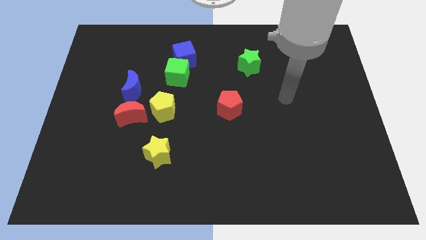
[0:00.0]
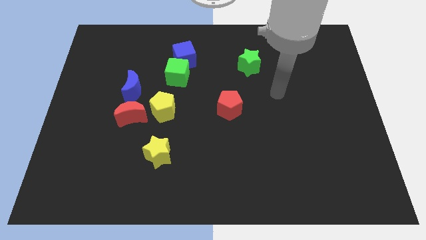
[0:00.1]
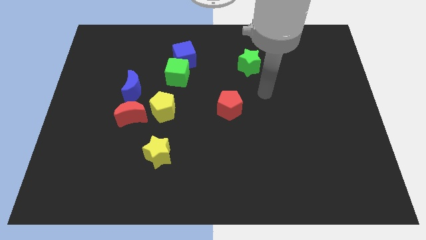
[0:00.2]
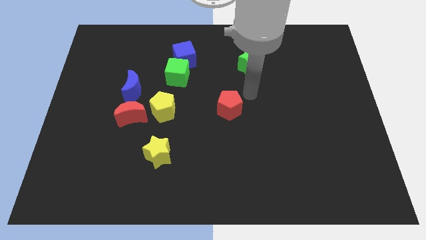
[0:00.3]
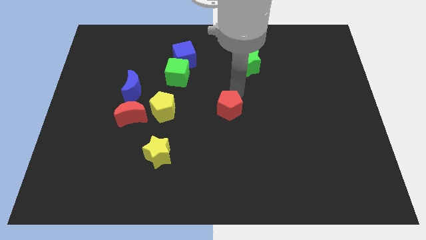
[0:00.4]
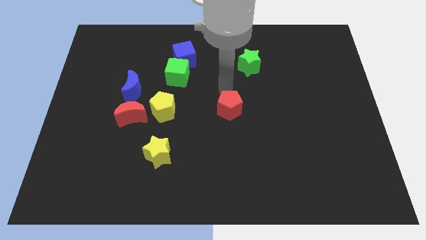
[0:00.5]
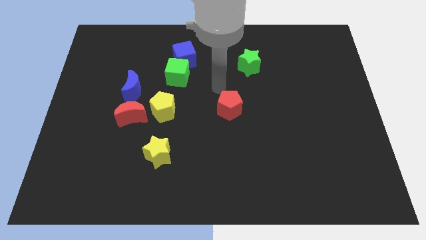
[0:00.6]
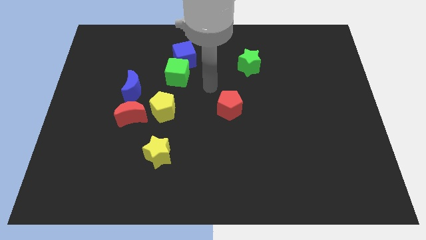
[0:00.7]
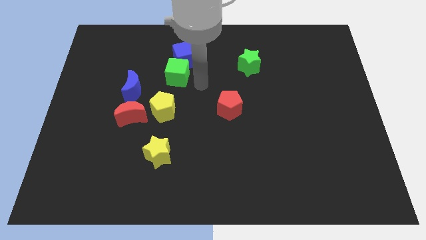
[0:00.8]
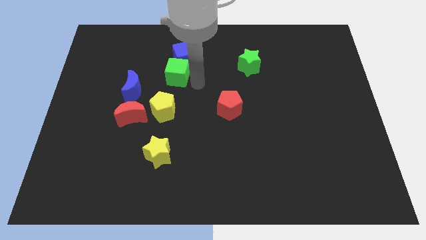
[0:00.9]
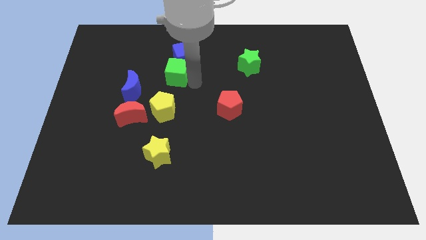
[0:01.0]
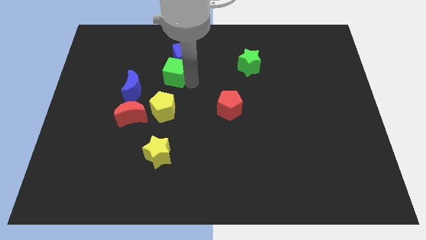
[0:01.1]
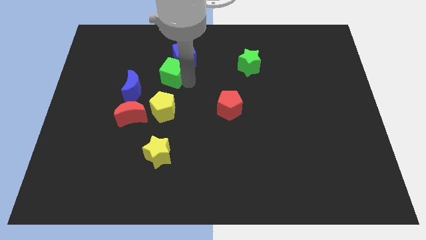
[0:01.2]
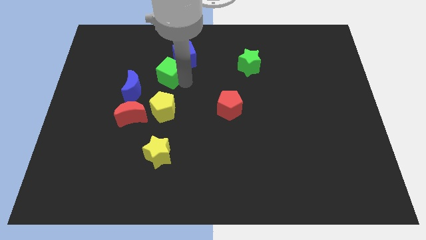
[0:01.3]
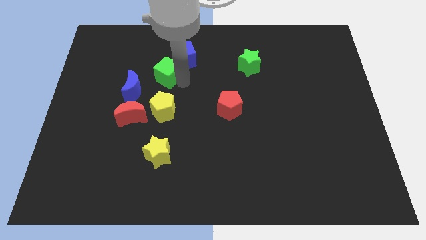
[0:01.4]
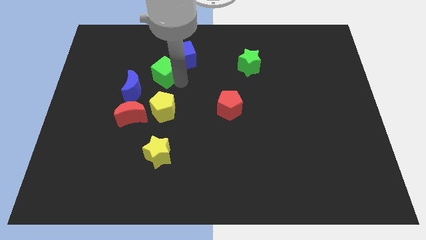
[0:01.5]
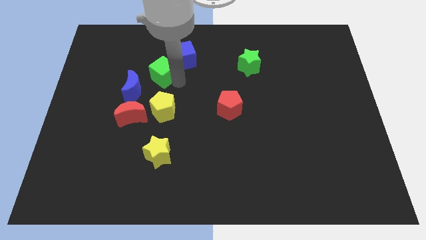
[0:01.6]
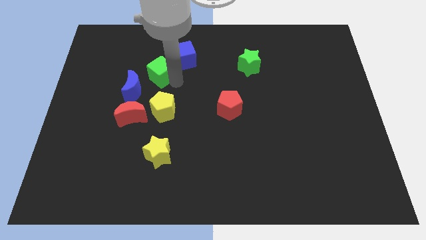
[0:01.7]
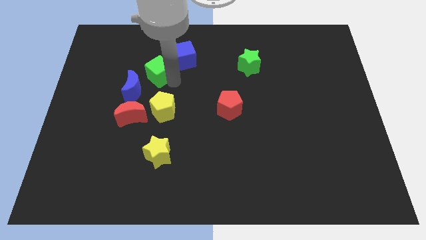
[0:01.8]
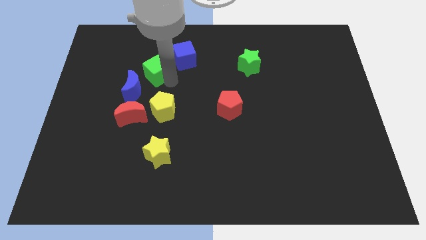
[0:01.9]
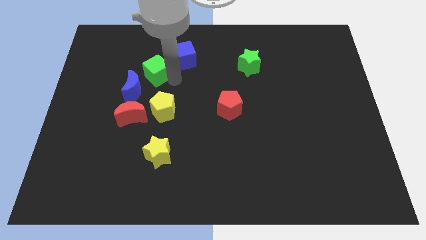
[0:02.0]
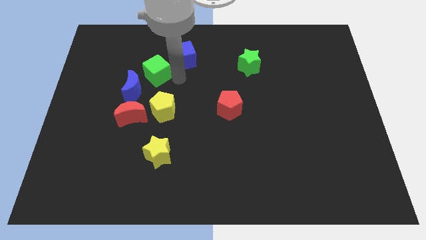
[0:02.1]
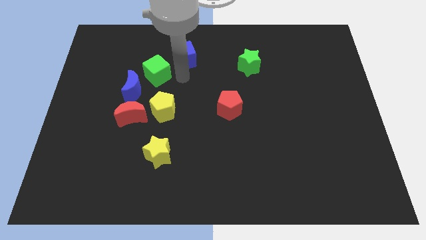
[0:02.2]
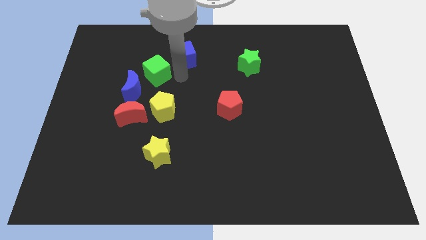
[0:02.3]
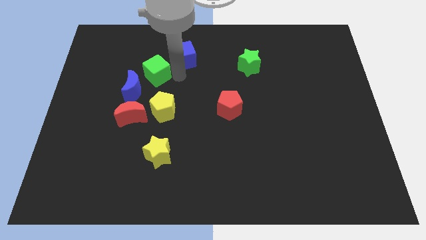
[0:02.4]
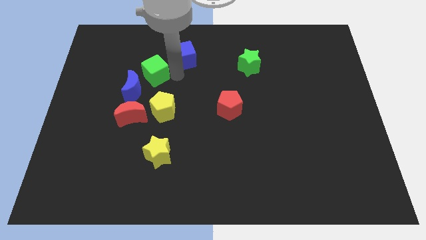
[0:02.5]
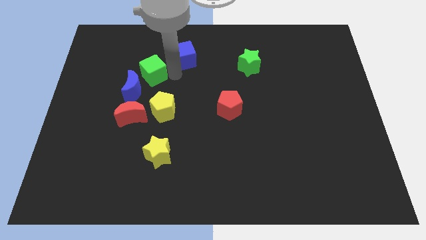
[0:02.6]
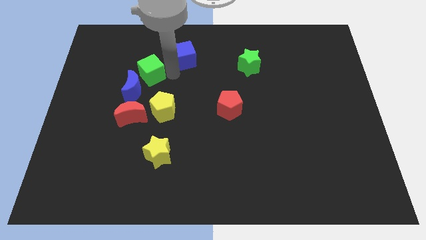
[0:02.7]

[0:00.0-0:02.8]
slide the green cube left a little bit

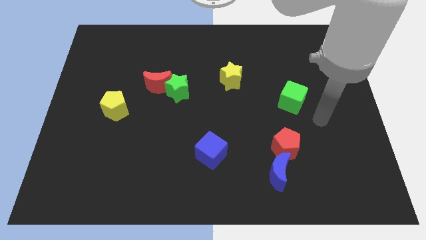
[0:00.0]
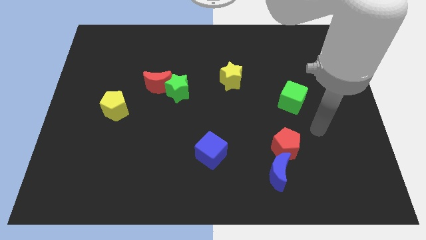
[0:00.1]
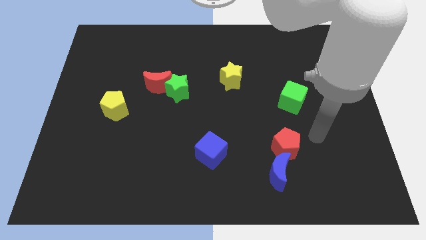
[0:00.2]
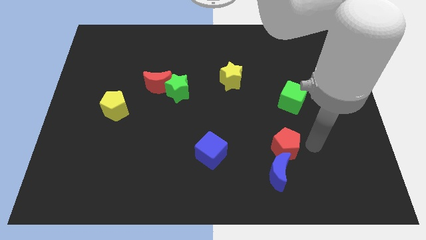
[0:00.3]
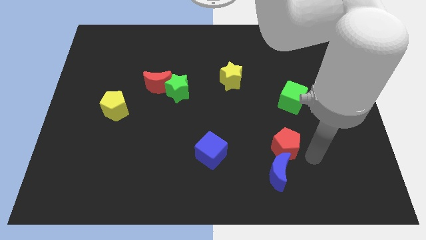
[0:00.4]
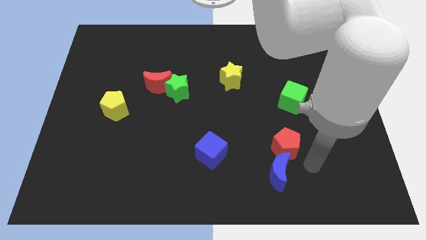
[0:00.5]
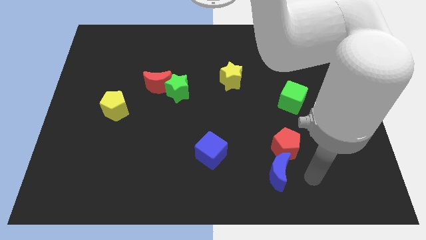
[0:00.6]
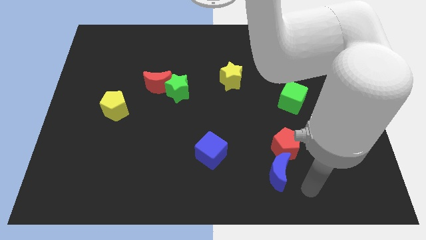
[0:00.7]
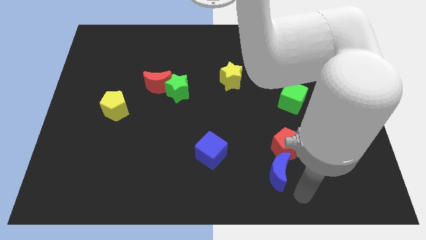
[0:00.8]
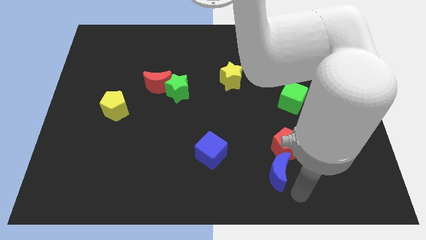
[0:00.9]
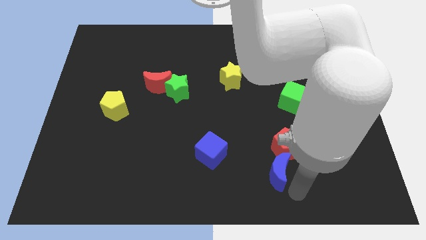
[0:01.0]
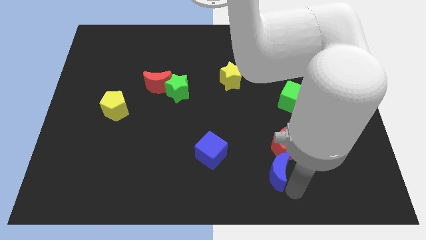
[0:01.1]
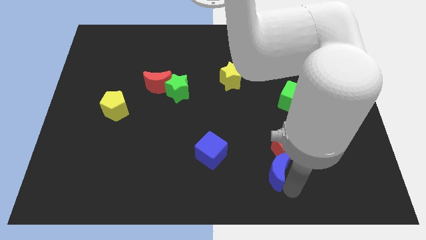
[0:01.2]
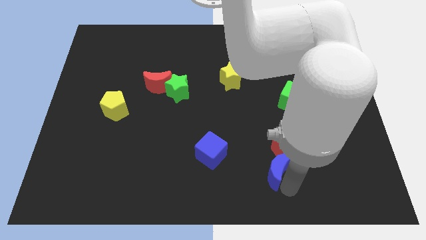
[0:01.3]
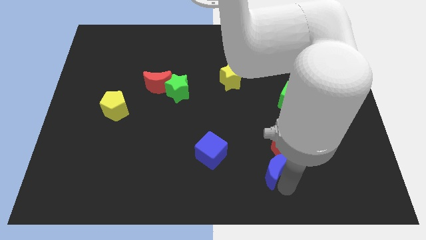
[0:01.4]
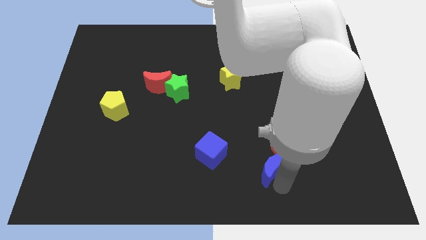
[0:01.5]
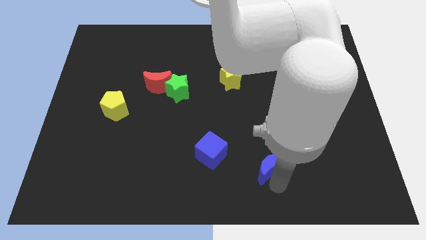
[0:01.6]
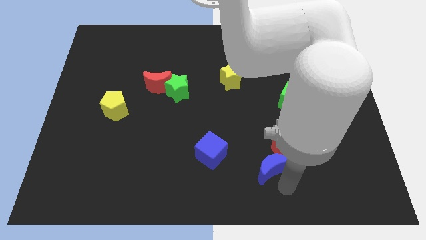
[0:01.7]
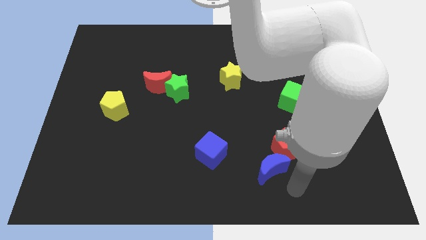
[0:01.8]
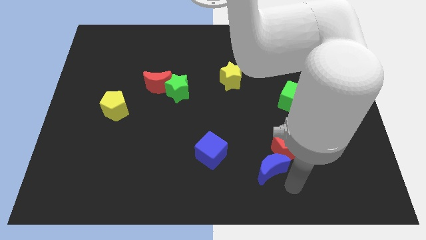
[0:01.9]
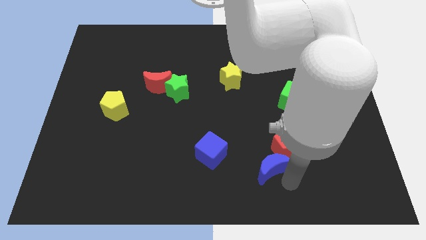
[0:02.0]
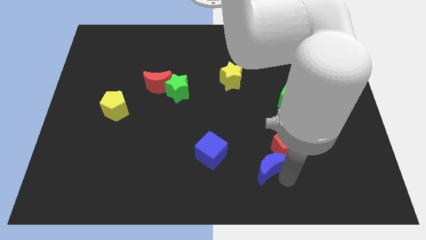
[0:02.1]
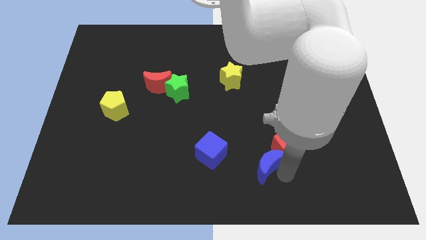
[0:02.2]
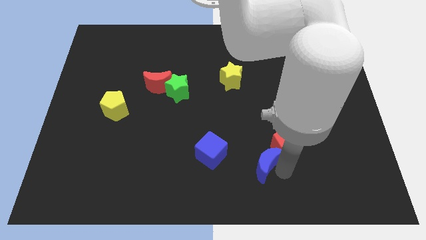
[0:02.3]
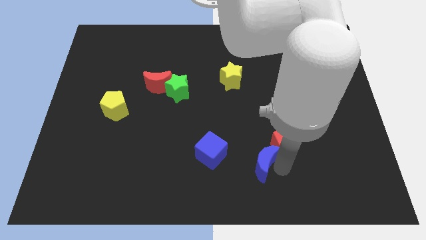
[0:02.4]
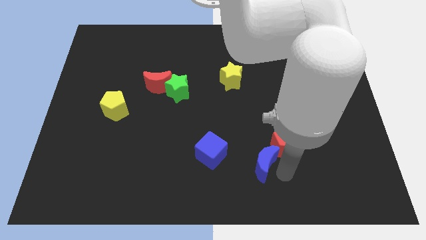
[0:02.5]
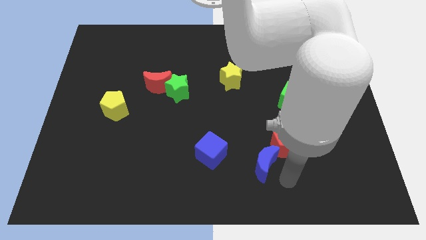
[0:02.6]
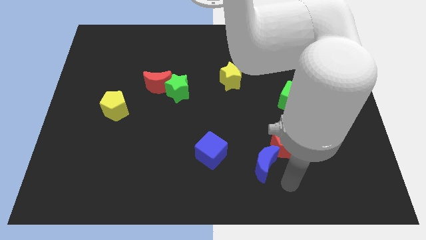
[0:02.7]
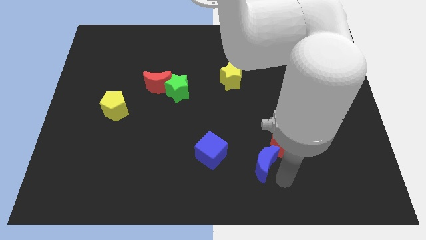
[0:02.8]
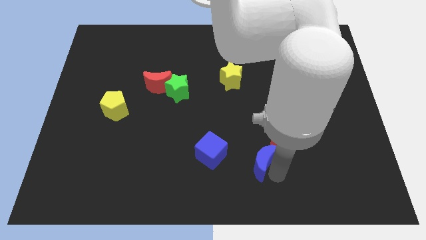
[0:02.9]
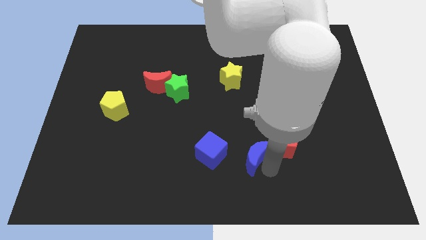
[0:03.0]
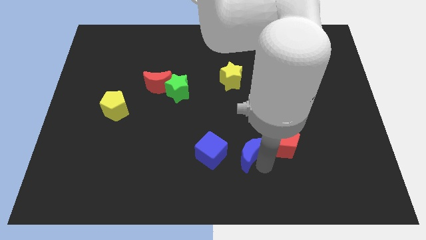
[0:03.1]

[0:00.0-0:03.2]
slide the blue moon upwards and left a bit

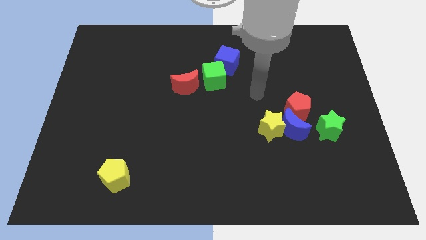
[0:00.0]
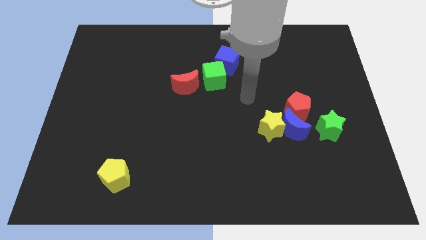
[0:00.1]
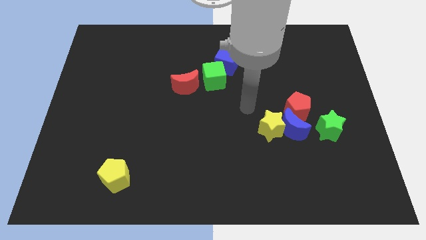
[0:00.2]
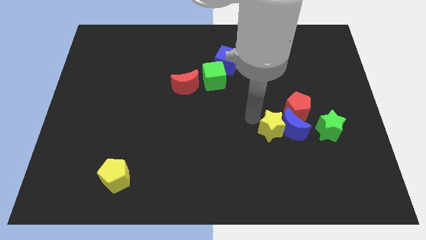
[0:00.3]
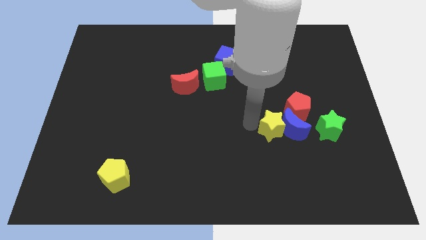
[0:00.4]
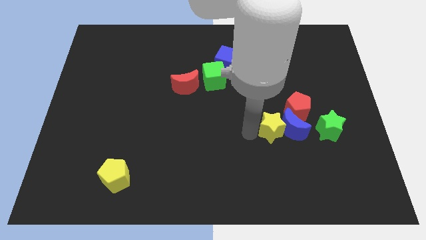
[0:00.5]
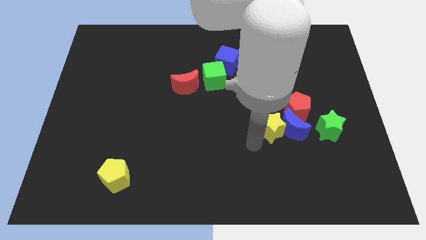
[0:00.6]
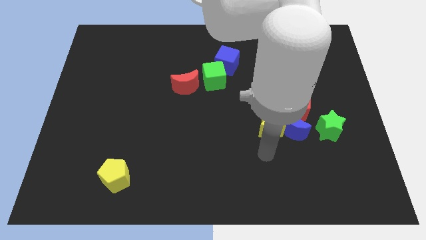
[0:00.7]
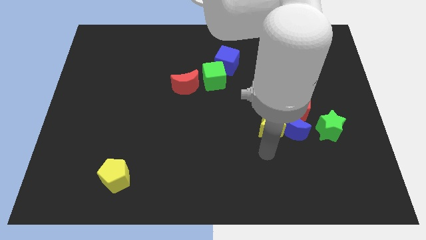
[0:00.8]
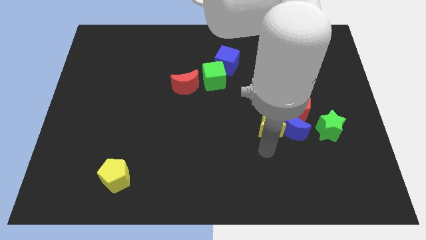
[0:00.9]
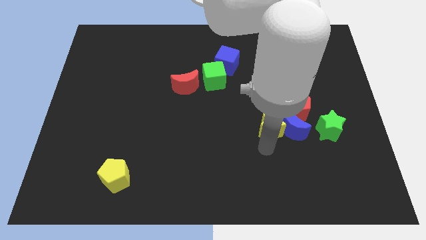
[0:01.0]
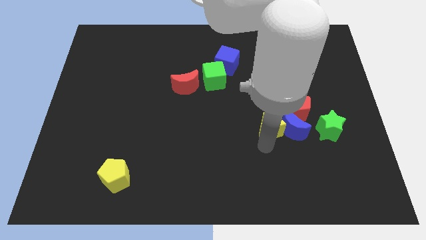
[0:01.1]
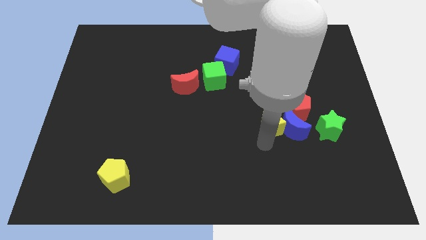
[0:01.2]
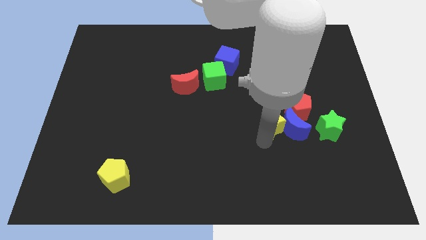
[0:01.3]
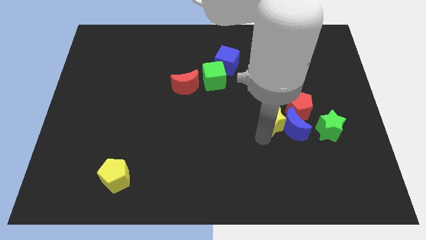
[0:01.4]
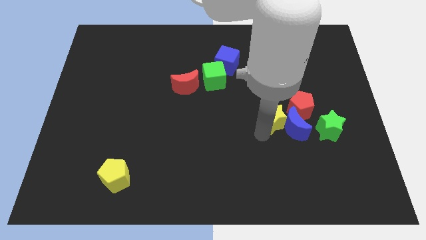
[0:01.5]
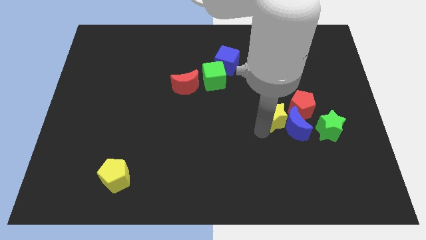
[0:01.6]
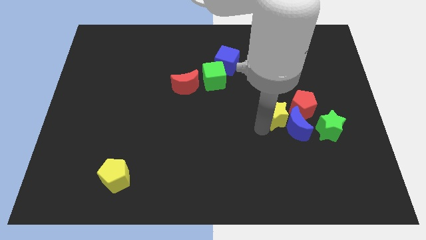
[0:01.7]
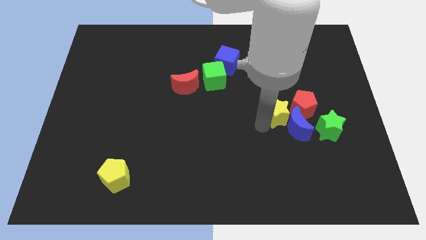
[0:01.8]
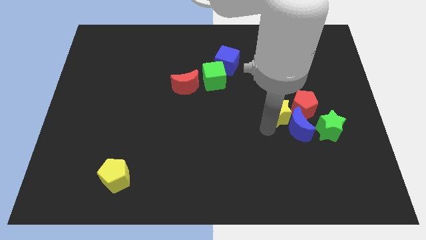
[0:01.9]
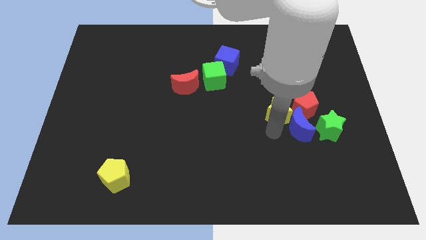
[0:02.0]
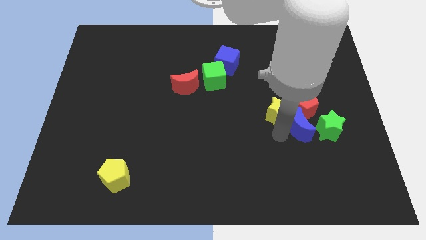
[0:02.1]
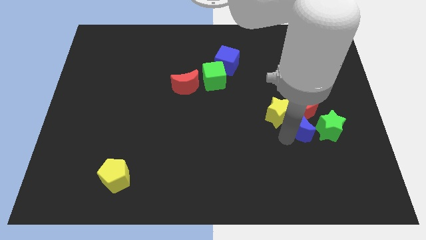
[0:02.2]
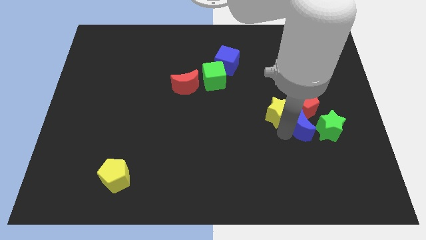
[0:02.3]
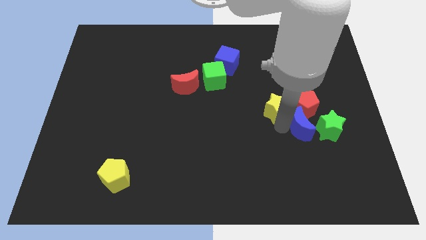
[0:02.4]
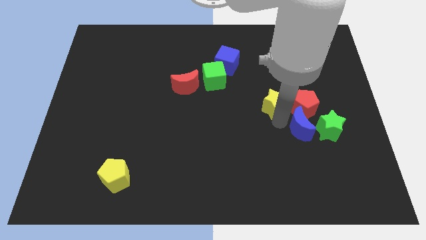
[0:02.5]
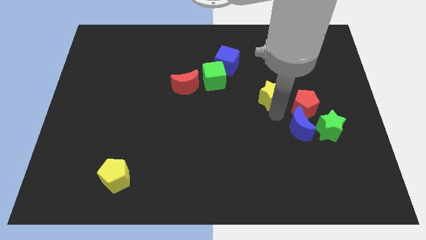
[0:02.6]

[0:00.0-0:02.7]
push the yellow star a bit up
